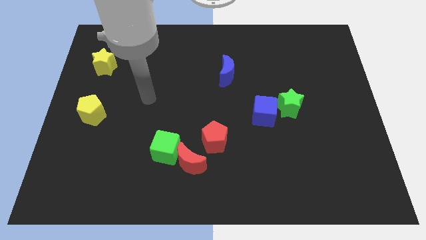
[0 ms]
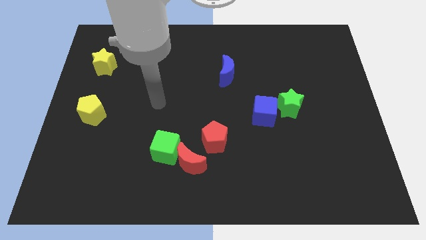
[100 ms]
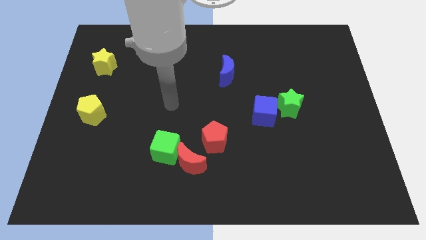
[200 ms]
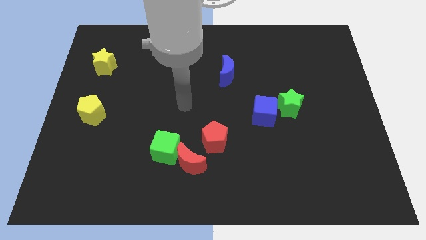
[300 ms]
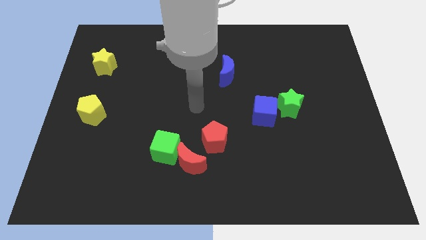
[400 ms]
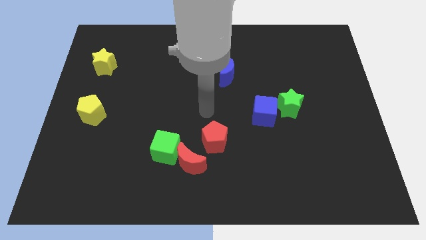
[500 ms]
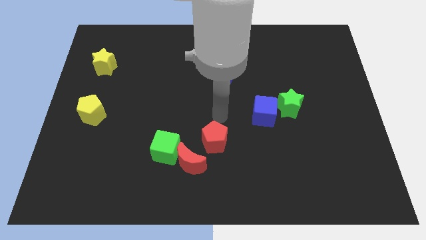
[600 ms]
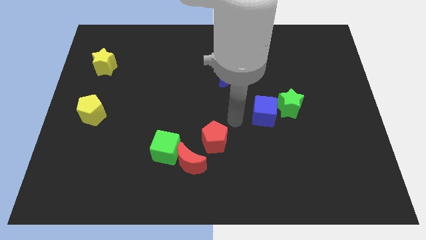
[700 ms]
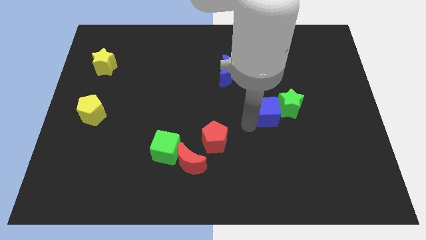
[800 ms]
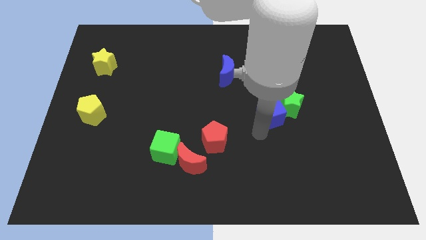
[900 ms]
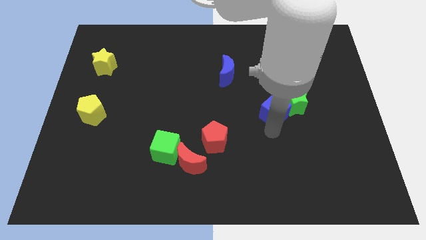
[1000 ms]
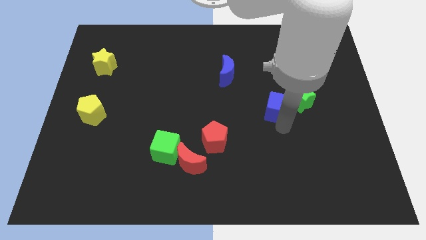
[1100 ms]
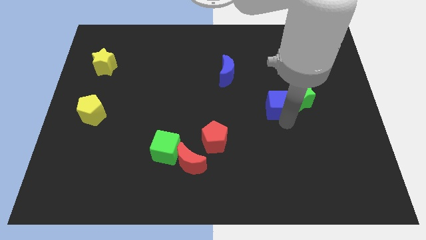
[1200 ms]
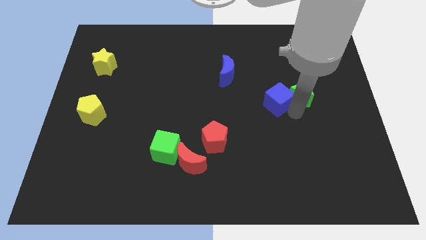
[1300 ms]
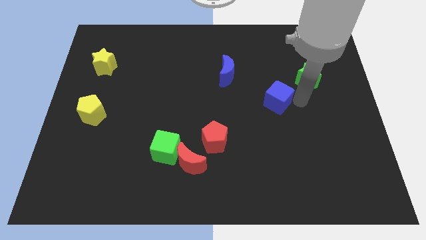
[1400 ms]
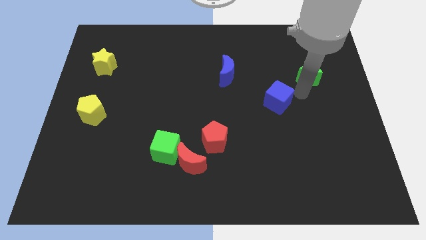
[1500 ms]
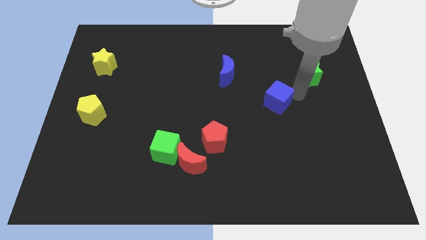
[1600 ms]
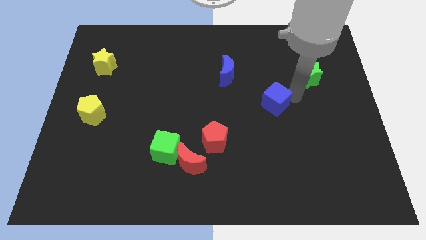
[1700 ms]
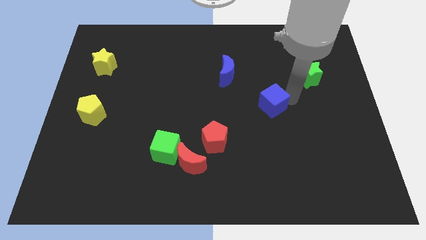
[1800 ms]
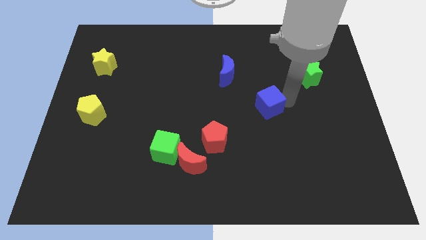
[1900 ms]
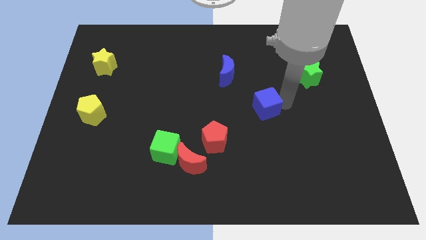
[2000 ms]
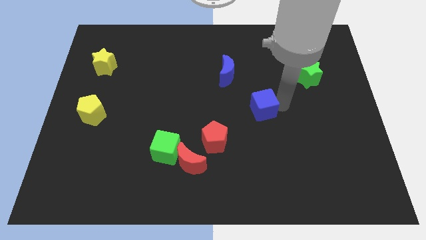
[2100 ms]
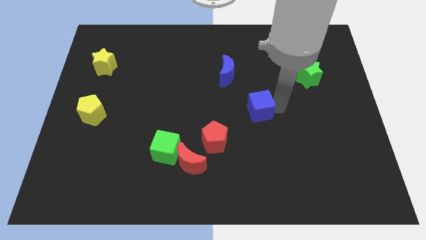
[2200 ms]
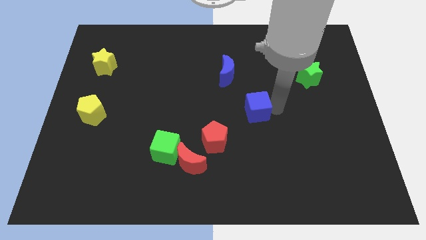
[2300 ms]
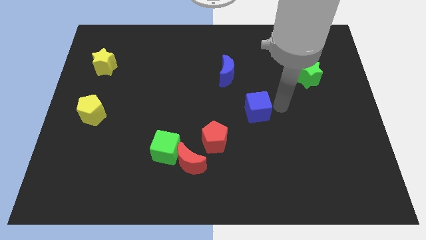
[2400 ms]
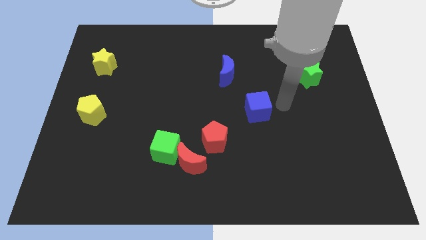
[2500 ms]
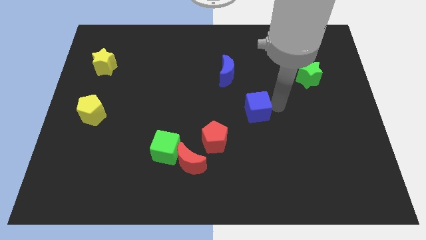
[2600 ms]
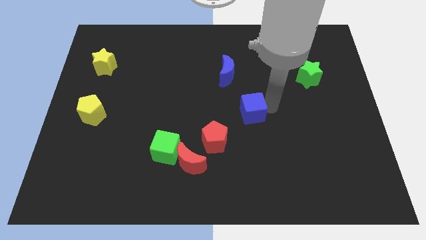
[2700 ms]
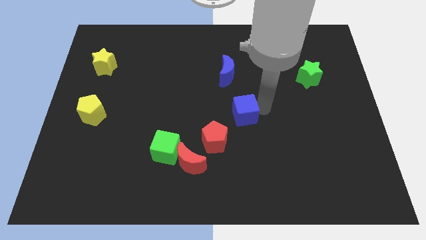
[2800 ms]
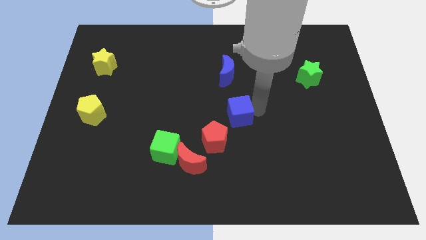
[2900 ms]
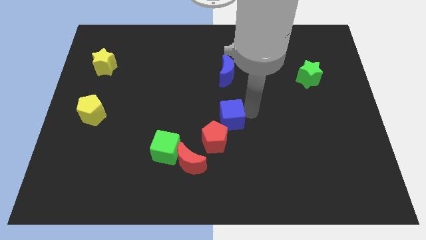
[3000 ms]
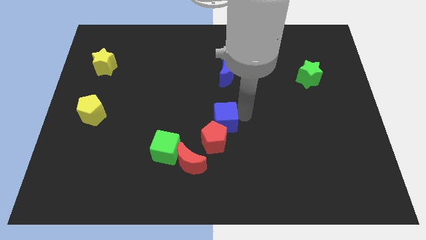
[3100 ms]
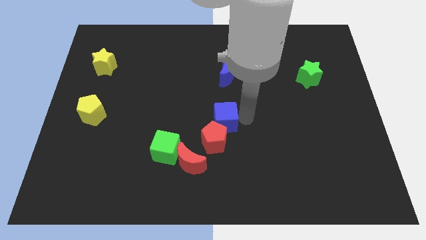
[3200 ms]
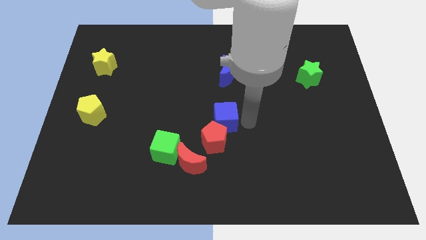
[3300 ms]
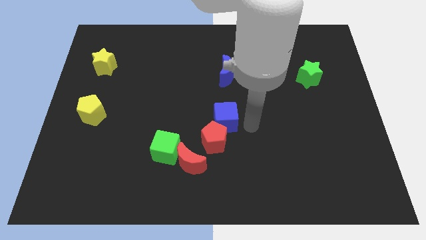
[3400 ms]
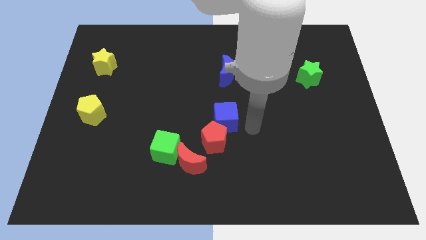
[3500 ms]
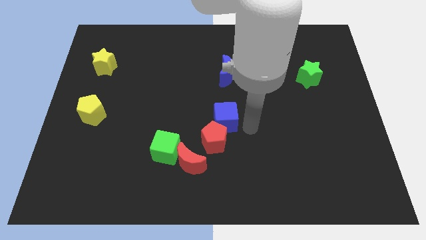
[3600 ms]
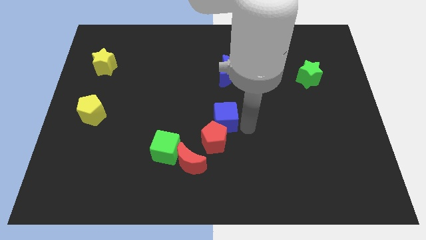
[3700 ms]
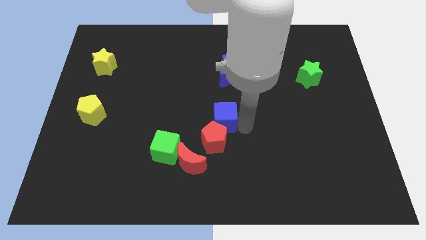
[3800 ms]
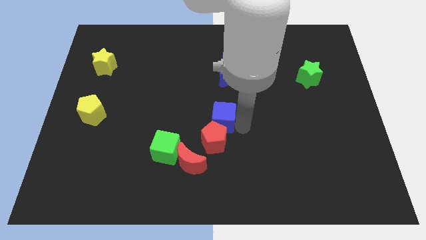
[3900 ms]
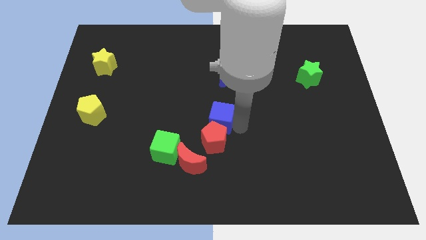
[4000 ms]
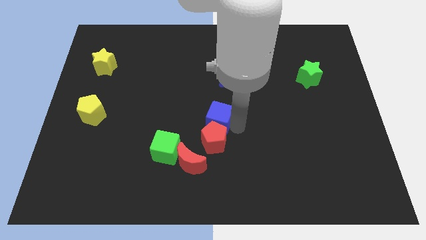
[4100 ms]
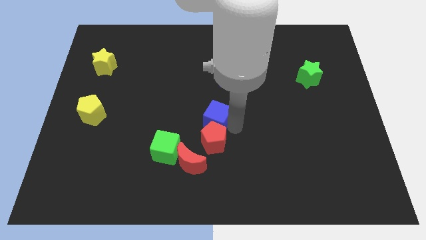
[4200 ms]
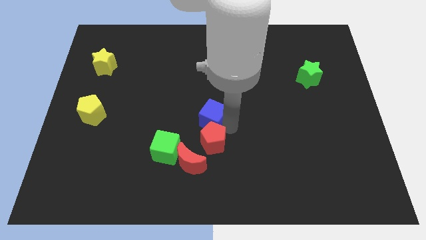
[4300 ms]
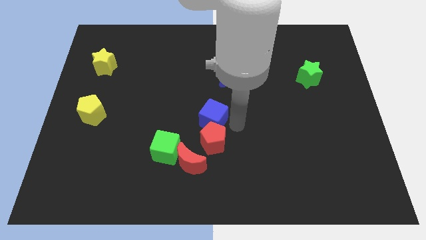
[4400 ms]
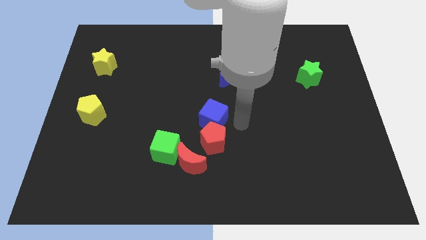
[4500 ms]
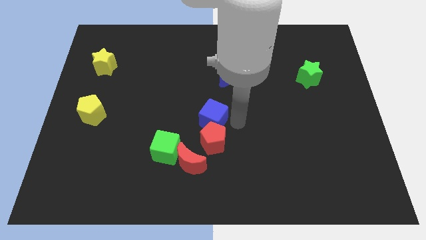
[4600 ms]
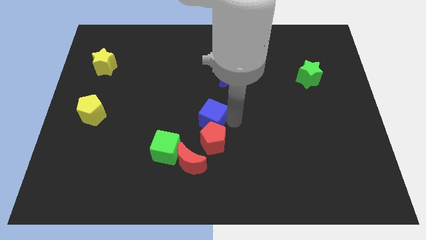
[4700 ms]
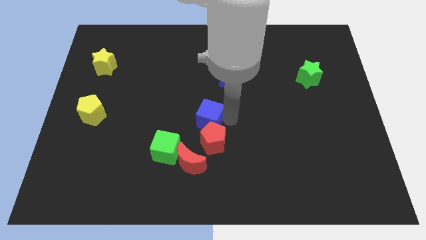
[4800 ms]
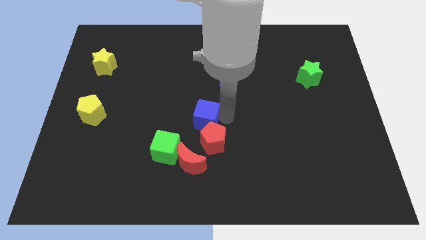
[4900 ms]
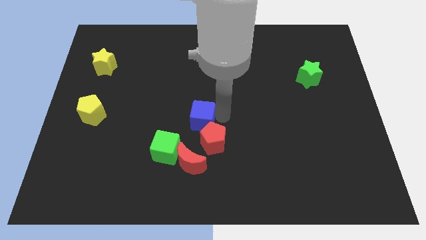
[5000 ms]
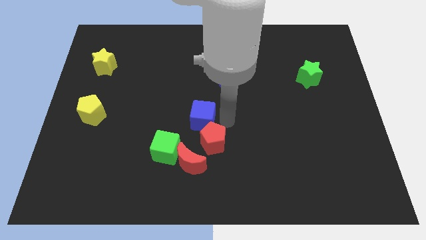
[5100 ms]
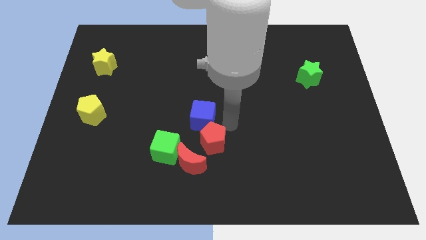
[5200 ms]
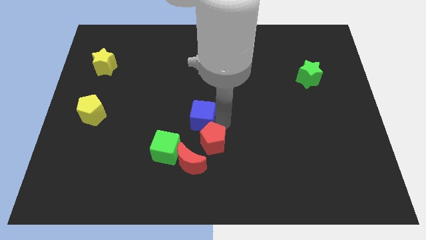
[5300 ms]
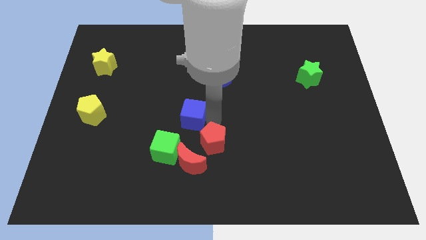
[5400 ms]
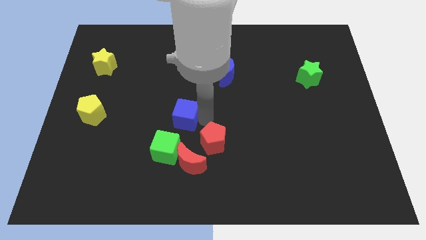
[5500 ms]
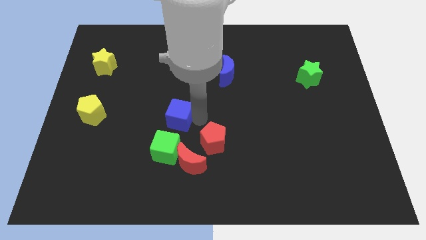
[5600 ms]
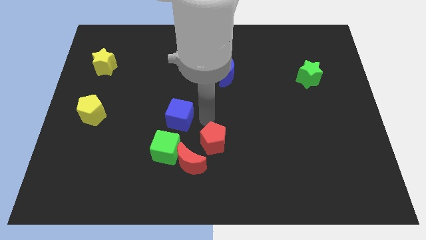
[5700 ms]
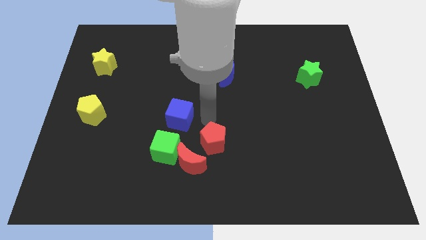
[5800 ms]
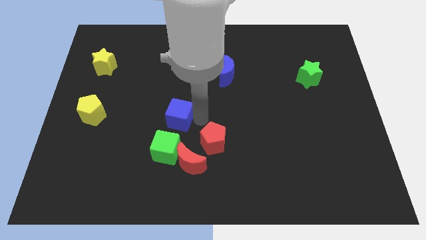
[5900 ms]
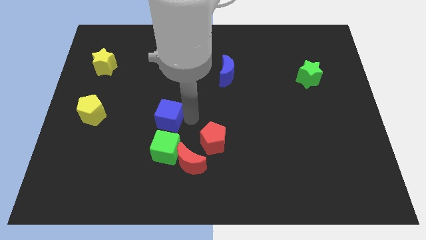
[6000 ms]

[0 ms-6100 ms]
slide the blue cube left

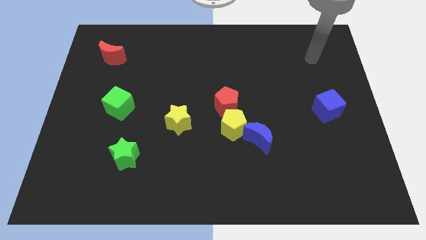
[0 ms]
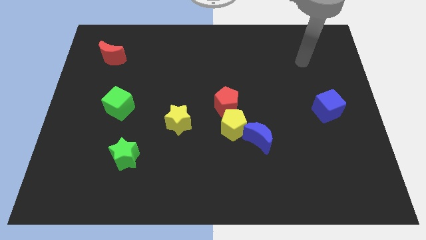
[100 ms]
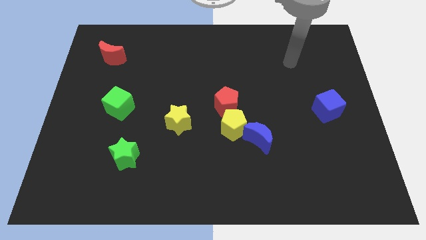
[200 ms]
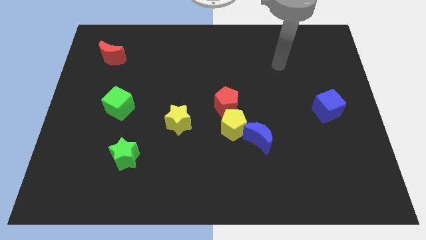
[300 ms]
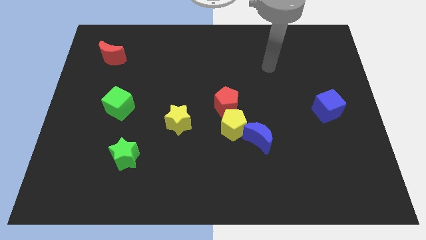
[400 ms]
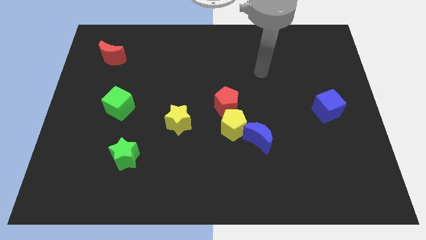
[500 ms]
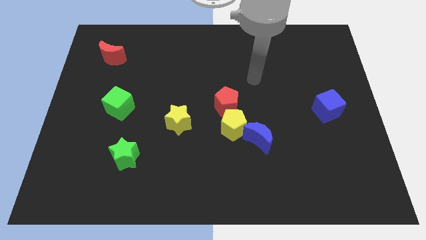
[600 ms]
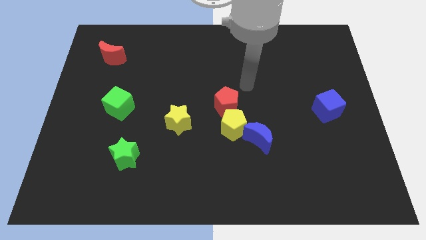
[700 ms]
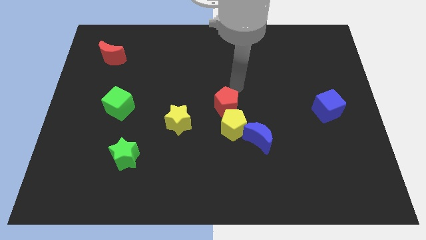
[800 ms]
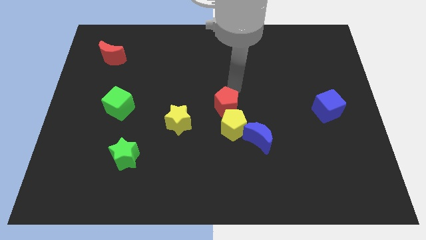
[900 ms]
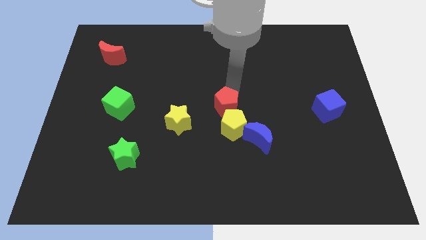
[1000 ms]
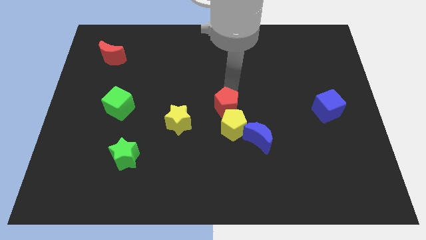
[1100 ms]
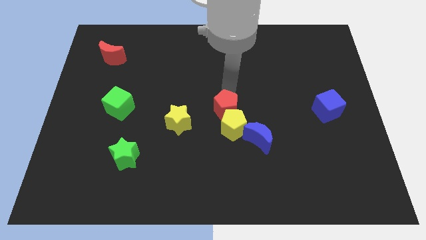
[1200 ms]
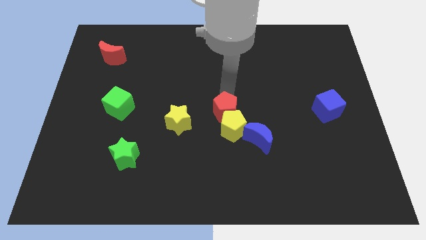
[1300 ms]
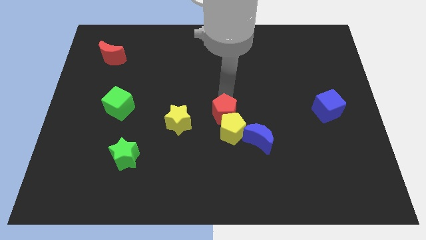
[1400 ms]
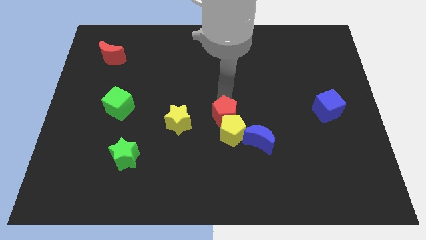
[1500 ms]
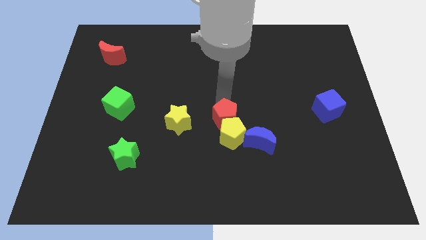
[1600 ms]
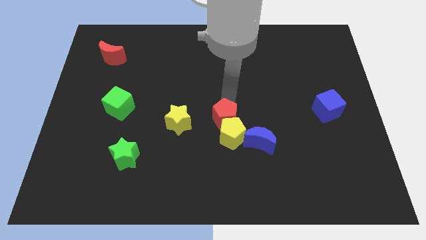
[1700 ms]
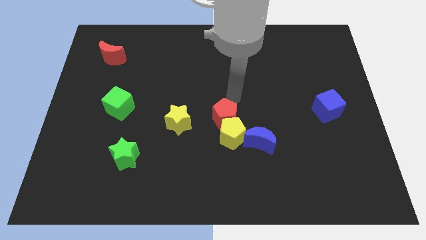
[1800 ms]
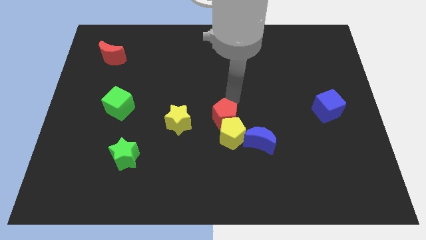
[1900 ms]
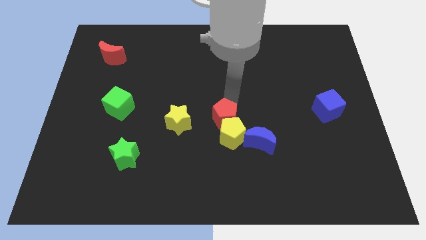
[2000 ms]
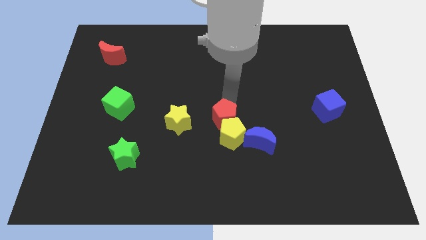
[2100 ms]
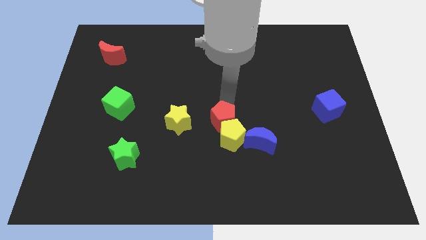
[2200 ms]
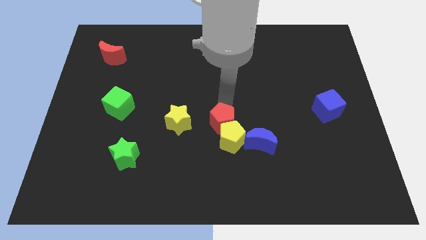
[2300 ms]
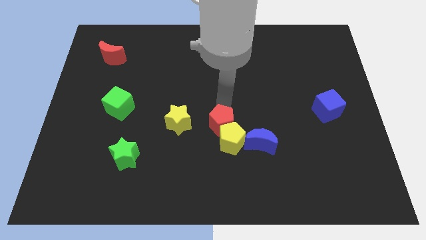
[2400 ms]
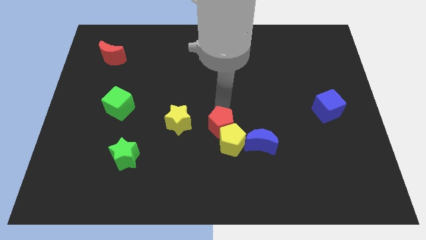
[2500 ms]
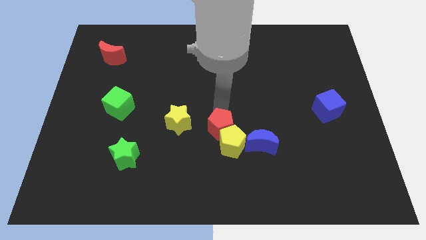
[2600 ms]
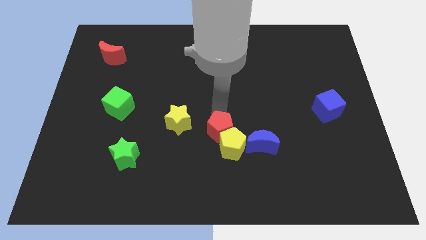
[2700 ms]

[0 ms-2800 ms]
slide the red pentagon slightly downwards
